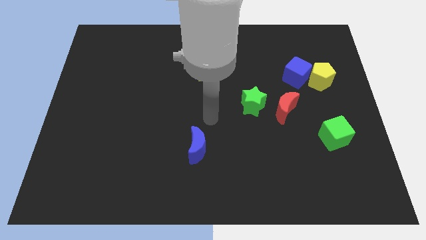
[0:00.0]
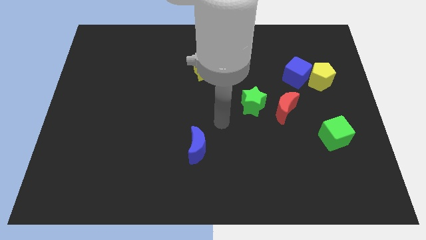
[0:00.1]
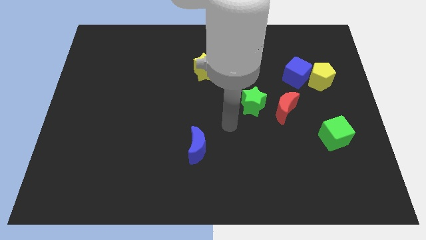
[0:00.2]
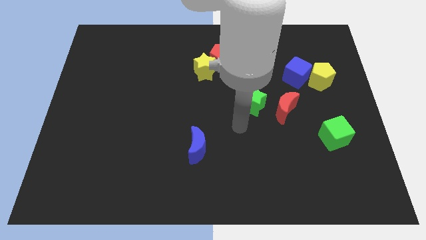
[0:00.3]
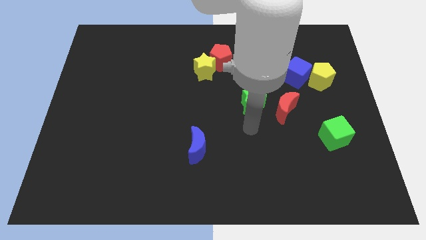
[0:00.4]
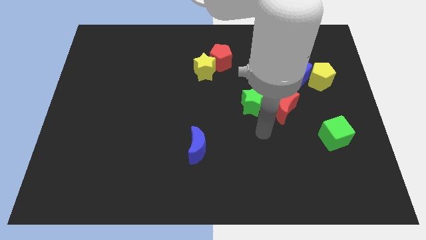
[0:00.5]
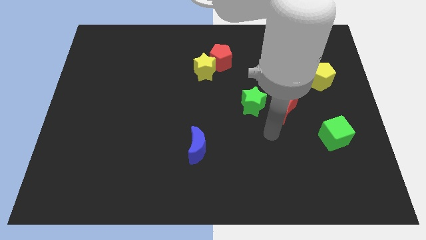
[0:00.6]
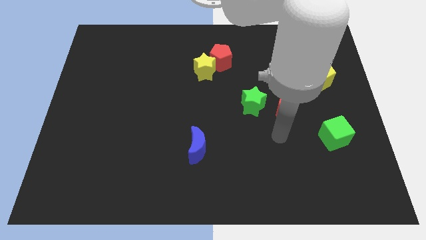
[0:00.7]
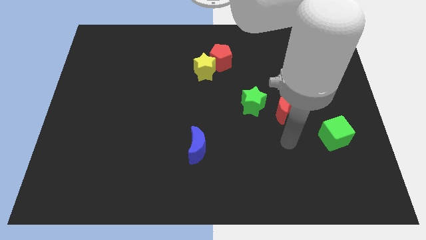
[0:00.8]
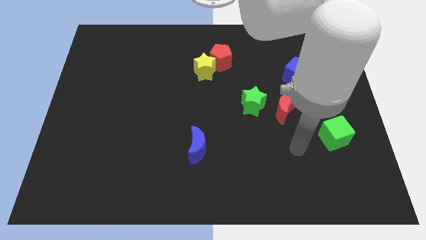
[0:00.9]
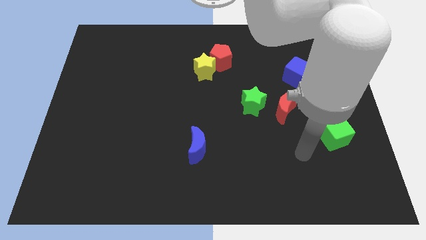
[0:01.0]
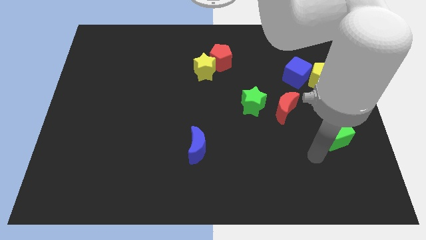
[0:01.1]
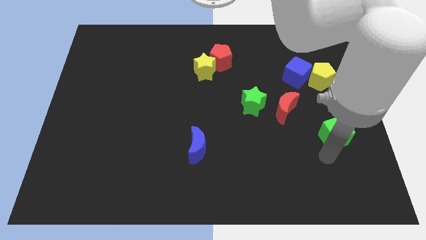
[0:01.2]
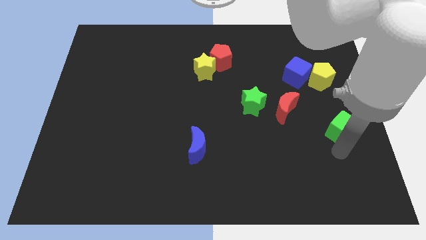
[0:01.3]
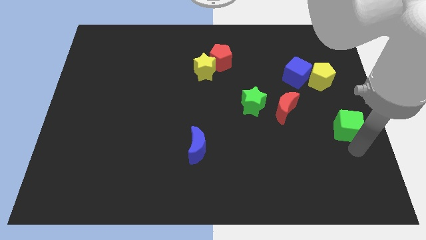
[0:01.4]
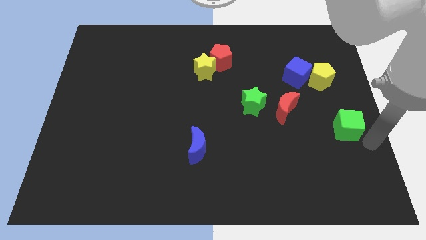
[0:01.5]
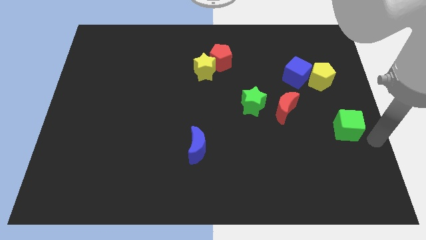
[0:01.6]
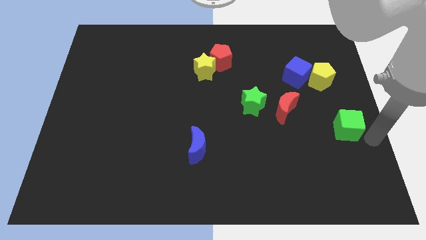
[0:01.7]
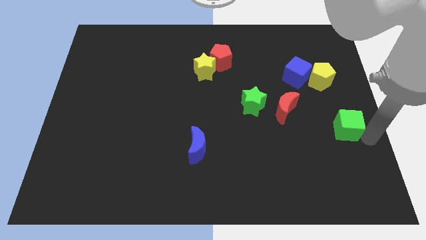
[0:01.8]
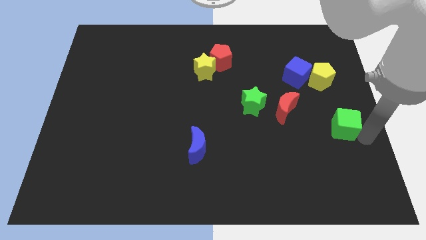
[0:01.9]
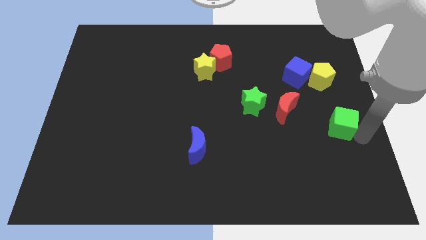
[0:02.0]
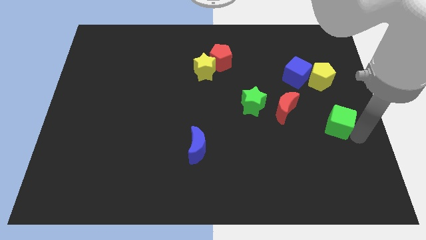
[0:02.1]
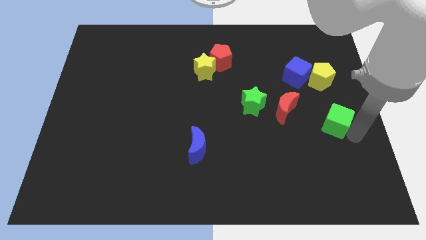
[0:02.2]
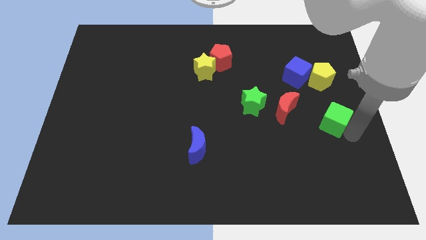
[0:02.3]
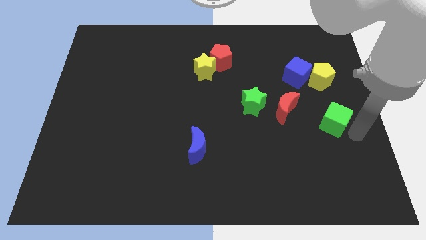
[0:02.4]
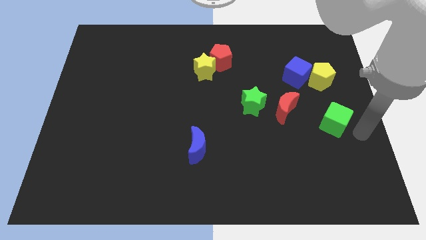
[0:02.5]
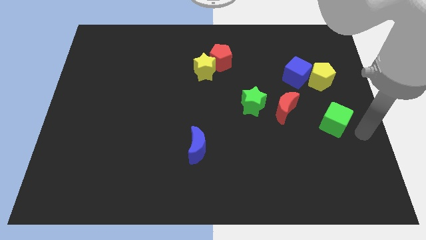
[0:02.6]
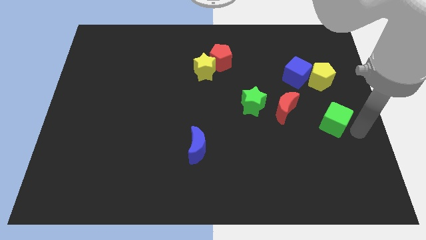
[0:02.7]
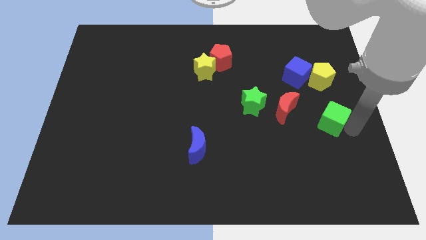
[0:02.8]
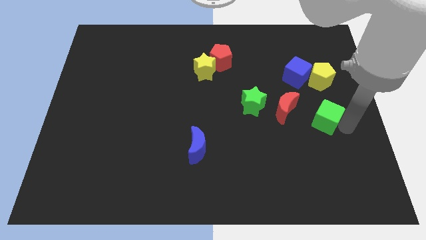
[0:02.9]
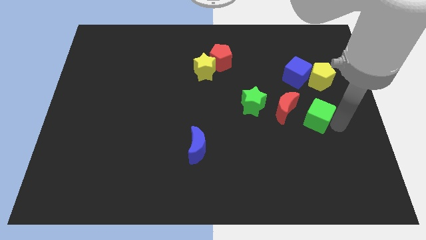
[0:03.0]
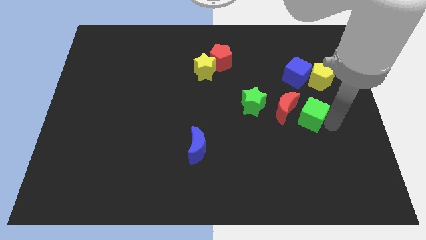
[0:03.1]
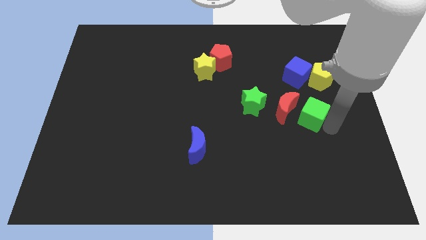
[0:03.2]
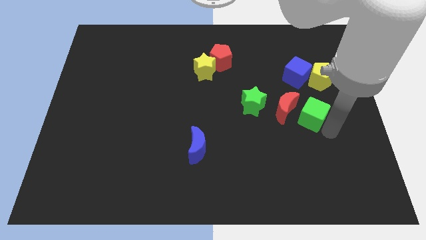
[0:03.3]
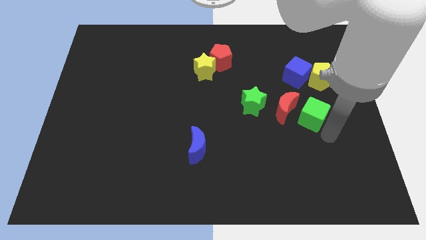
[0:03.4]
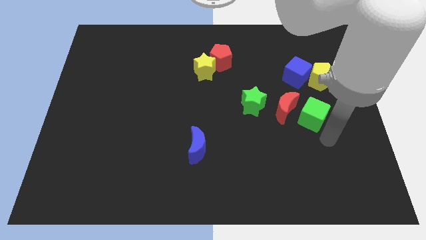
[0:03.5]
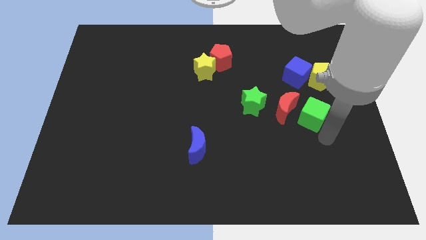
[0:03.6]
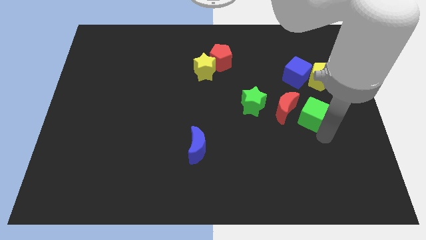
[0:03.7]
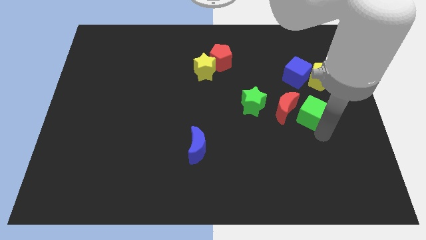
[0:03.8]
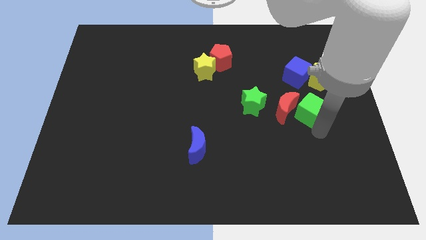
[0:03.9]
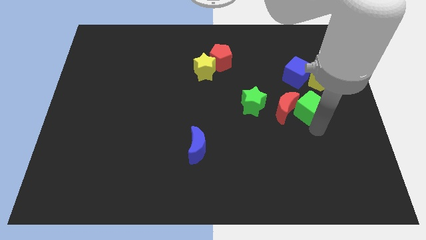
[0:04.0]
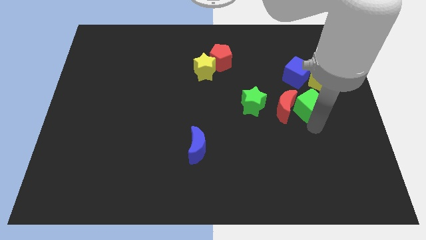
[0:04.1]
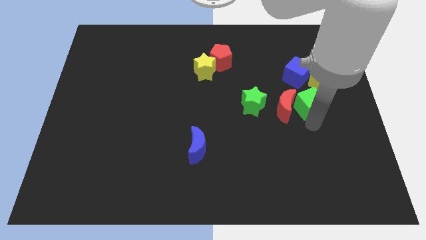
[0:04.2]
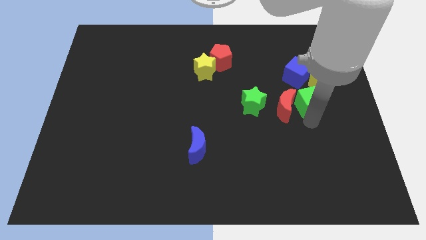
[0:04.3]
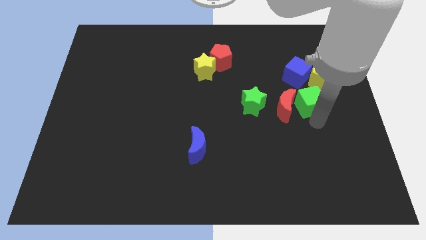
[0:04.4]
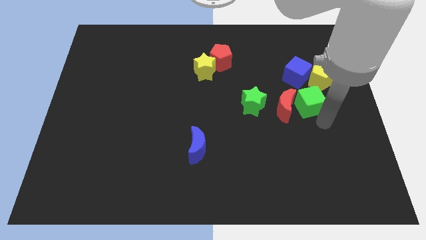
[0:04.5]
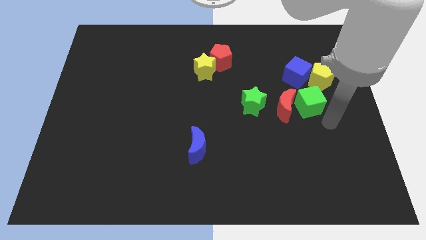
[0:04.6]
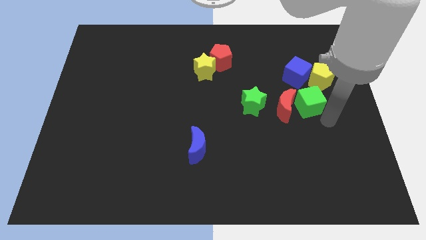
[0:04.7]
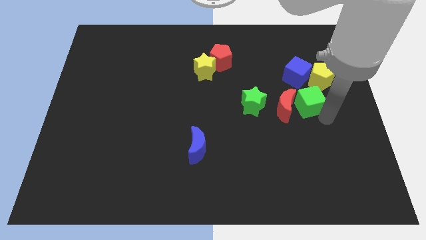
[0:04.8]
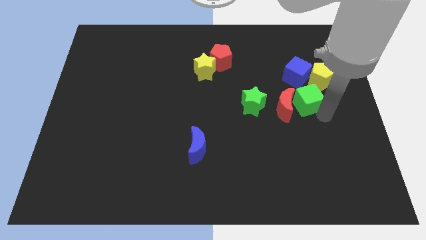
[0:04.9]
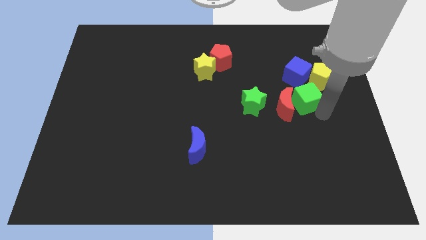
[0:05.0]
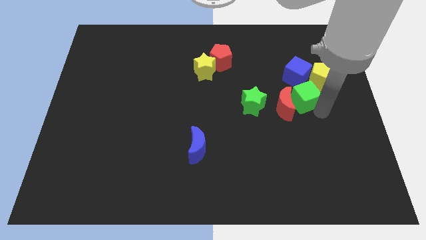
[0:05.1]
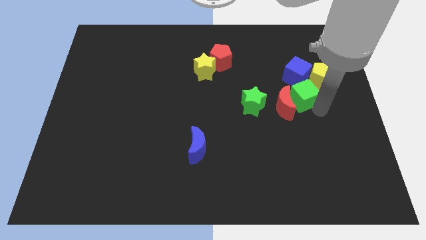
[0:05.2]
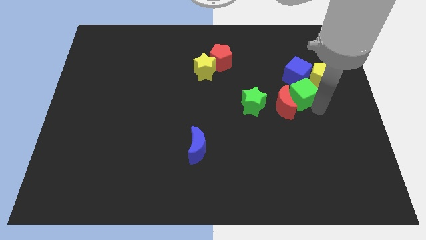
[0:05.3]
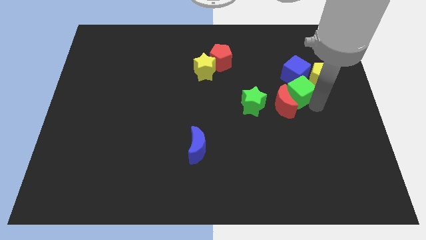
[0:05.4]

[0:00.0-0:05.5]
put the green cube to the top side of the red moon

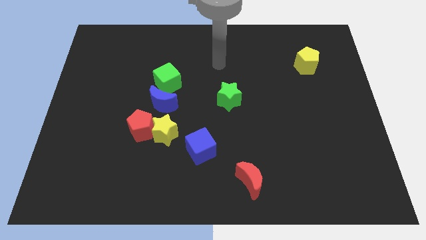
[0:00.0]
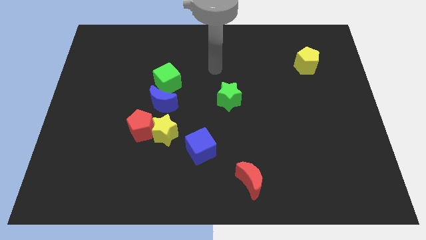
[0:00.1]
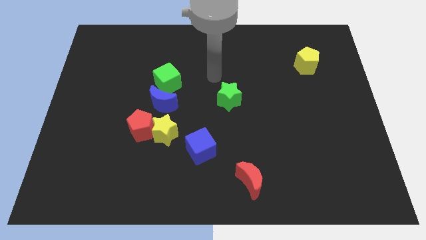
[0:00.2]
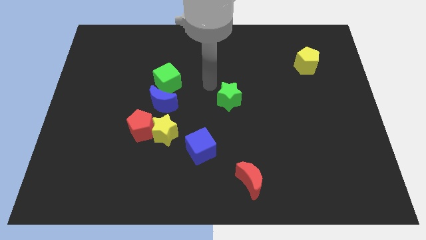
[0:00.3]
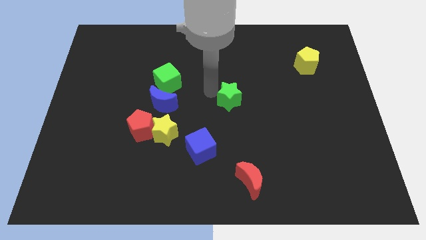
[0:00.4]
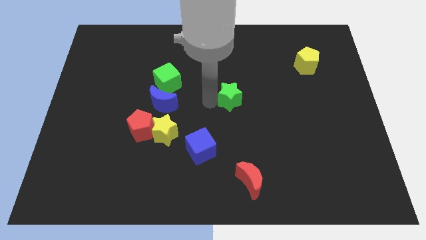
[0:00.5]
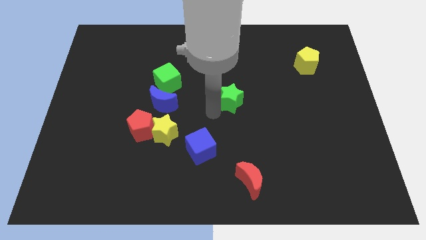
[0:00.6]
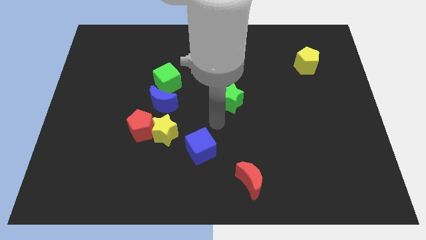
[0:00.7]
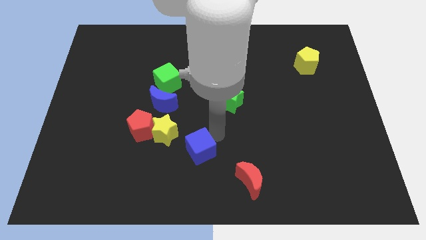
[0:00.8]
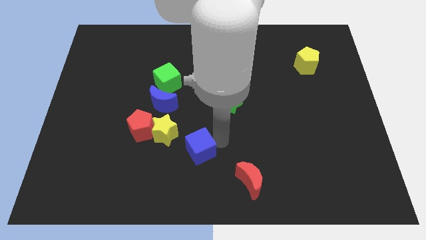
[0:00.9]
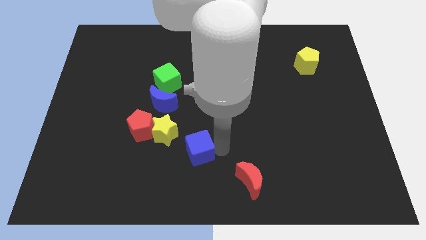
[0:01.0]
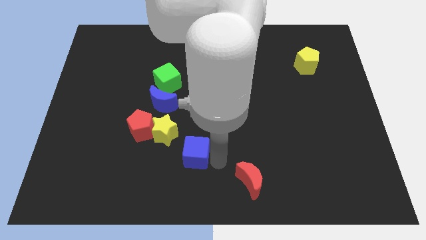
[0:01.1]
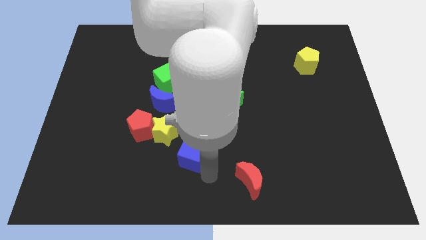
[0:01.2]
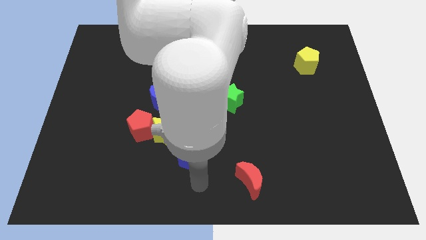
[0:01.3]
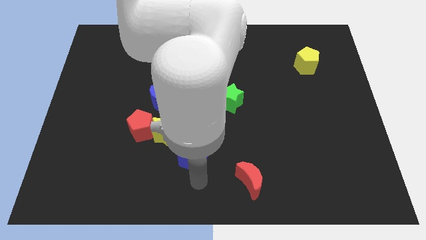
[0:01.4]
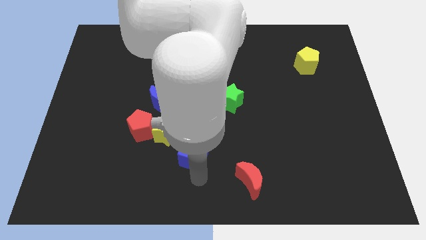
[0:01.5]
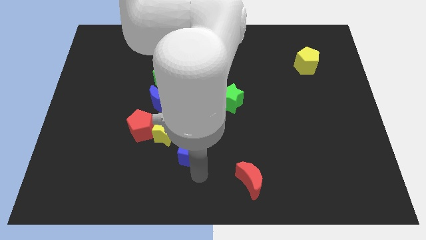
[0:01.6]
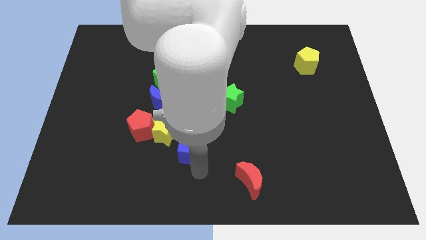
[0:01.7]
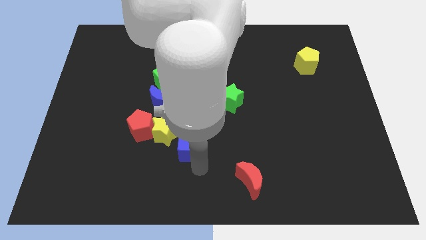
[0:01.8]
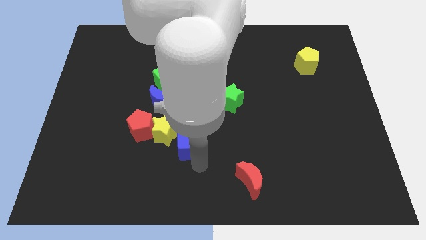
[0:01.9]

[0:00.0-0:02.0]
slide the blue cube just right of the red pentagon

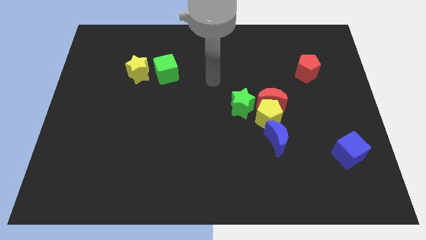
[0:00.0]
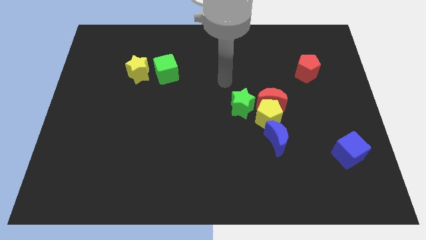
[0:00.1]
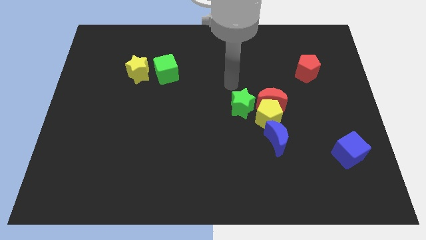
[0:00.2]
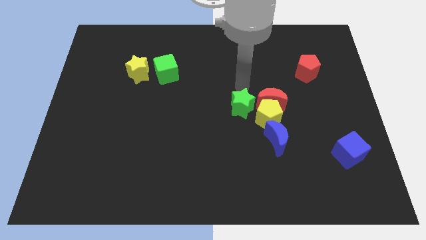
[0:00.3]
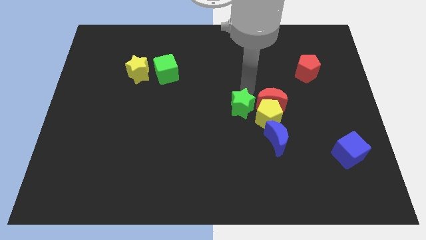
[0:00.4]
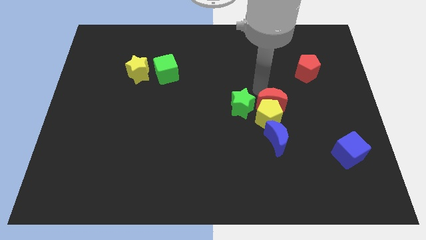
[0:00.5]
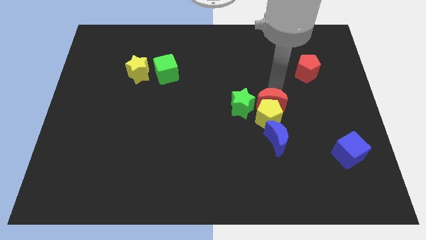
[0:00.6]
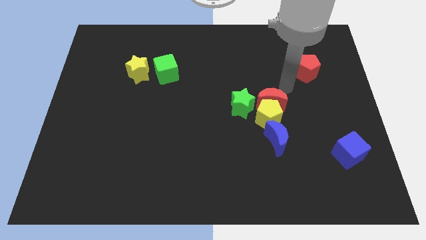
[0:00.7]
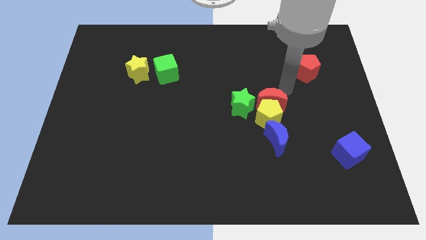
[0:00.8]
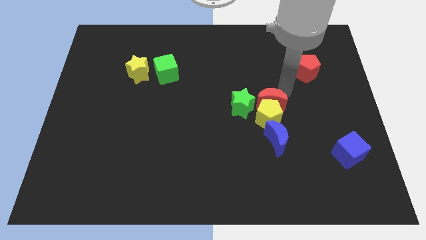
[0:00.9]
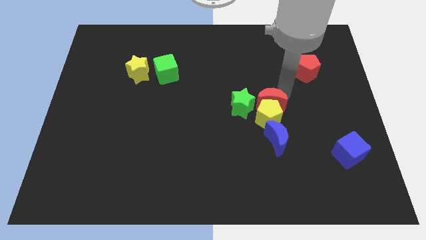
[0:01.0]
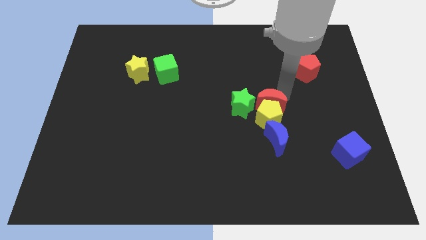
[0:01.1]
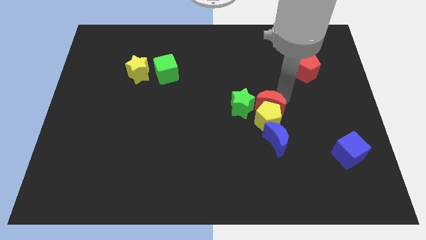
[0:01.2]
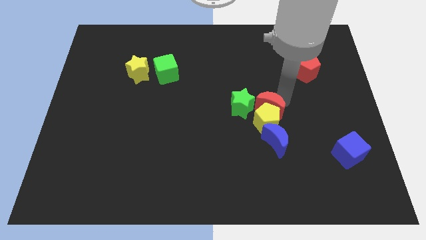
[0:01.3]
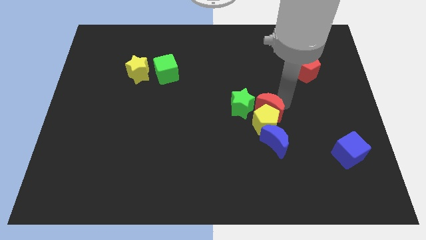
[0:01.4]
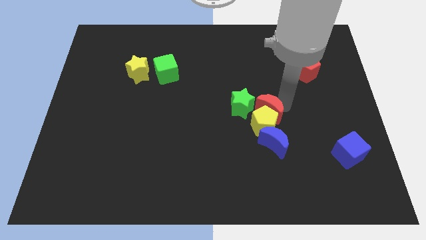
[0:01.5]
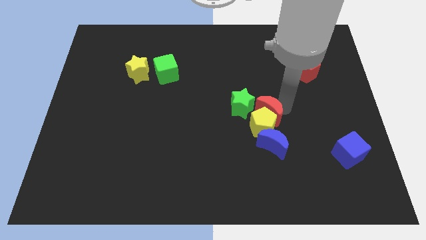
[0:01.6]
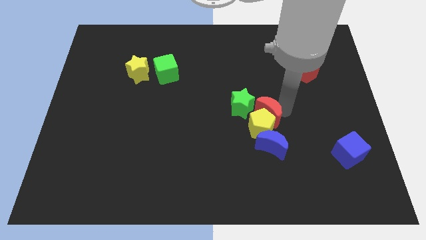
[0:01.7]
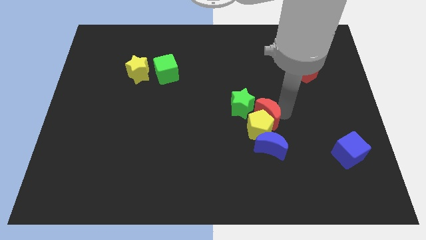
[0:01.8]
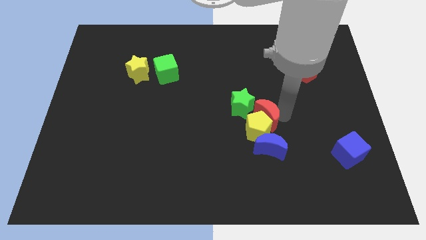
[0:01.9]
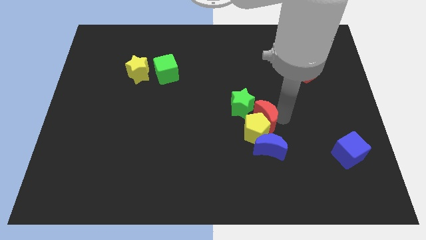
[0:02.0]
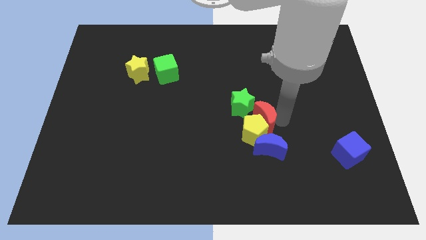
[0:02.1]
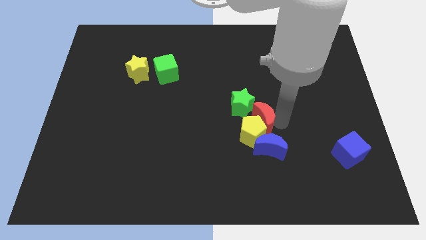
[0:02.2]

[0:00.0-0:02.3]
slide the red moon diagonally up and to the left of the blue moon
